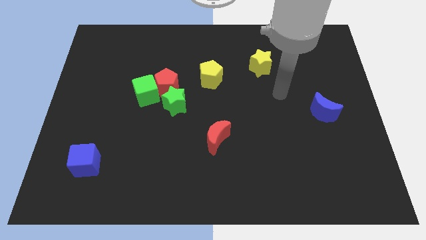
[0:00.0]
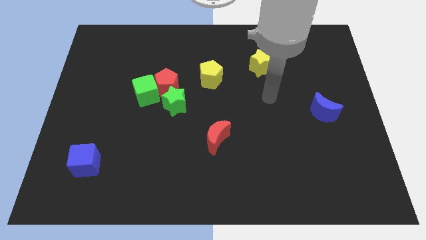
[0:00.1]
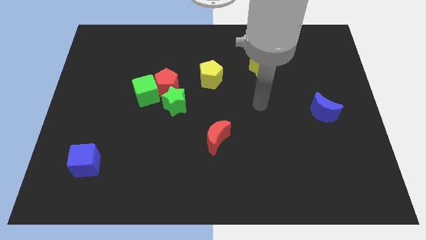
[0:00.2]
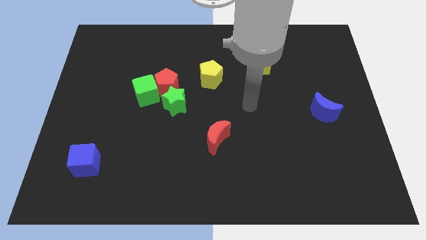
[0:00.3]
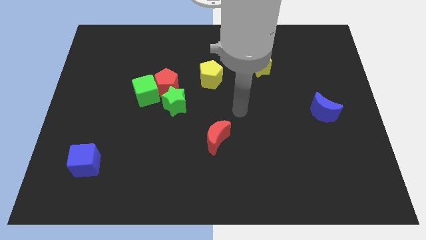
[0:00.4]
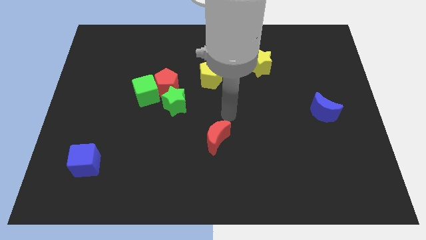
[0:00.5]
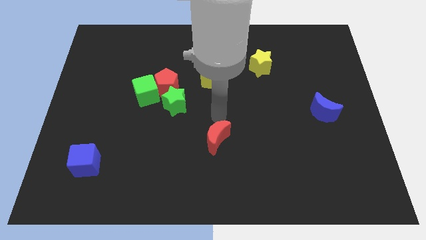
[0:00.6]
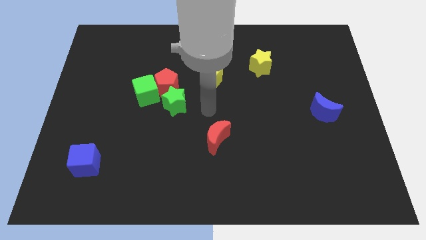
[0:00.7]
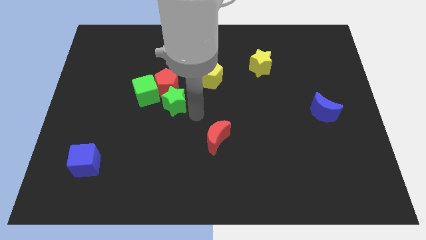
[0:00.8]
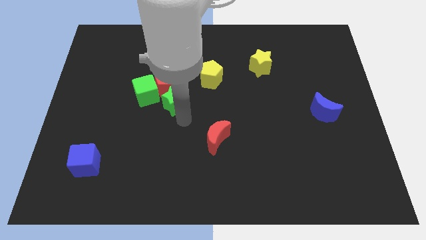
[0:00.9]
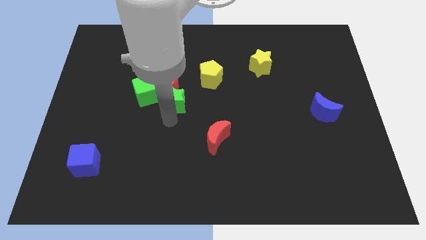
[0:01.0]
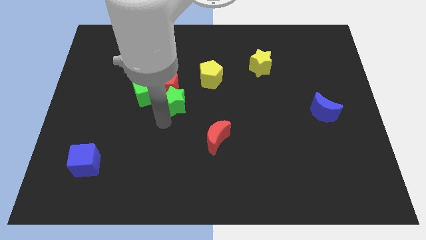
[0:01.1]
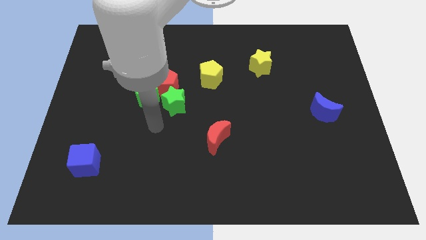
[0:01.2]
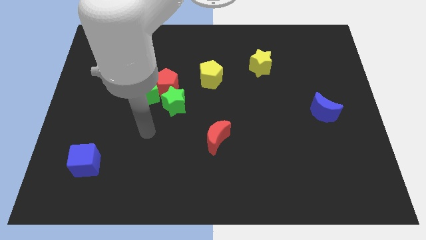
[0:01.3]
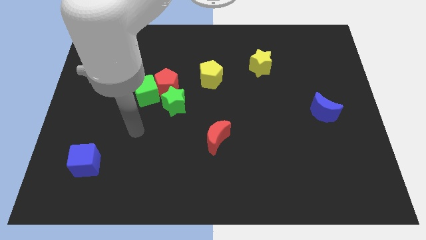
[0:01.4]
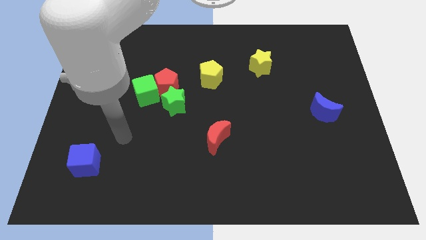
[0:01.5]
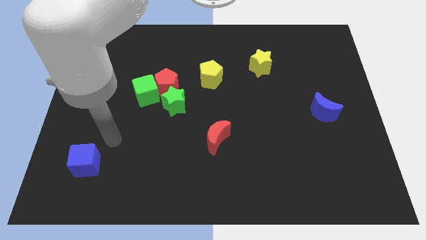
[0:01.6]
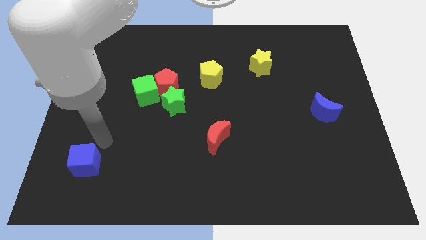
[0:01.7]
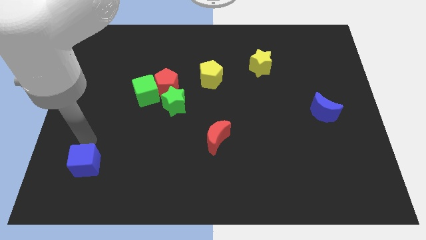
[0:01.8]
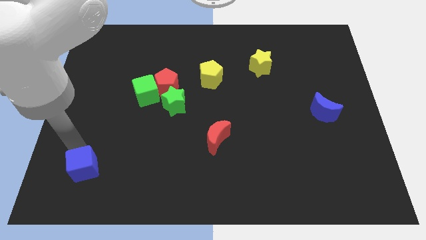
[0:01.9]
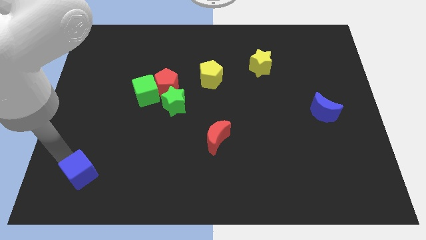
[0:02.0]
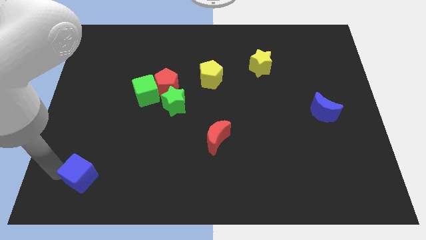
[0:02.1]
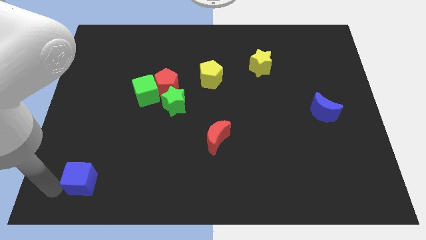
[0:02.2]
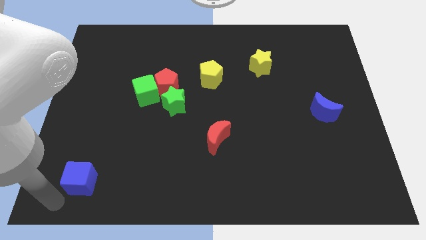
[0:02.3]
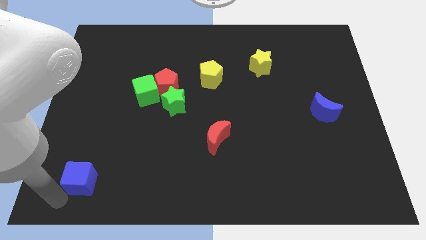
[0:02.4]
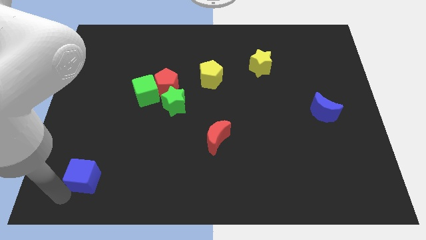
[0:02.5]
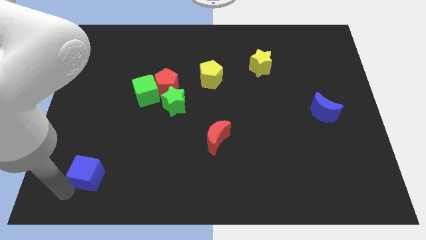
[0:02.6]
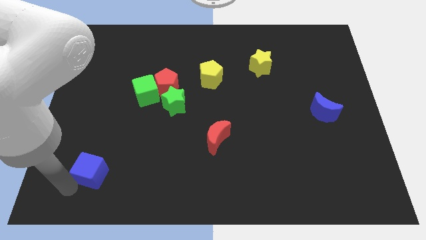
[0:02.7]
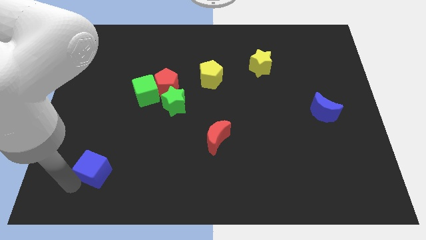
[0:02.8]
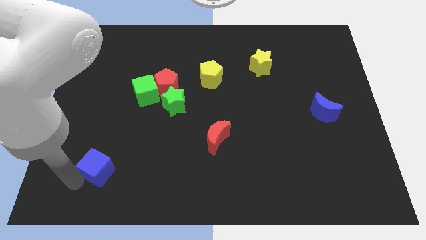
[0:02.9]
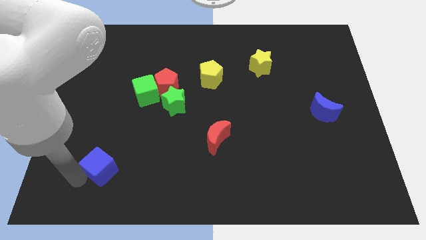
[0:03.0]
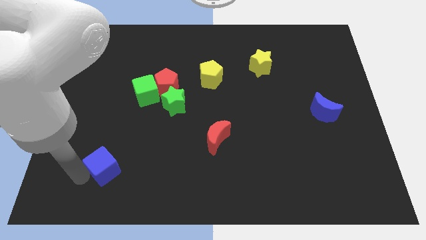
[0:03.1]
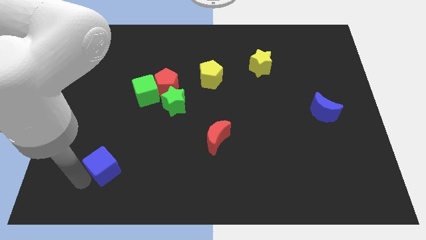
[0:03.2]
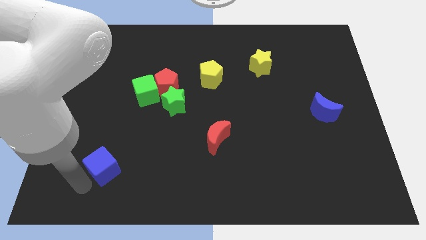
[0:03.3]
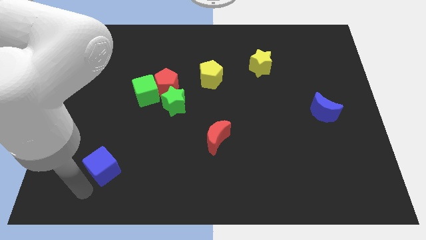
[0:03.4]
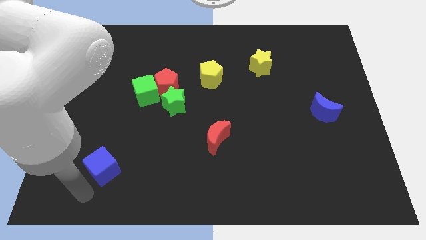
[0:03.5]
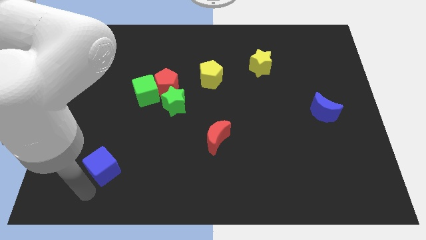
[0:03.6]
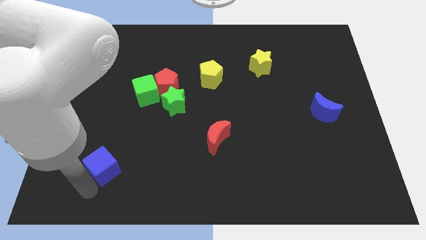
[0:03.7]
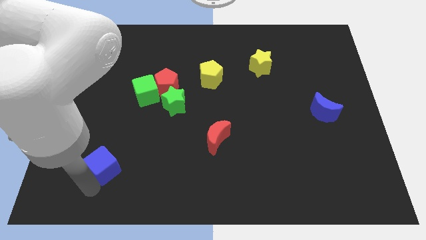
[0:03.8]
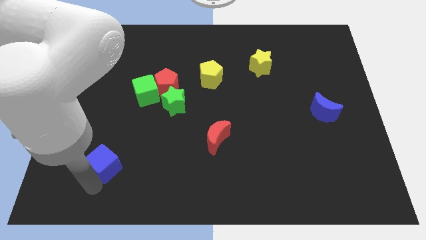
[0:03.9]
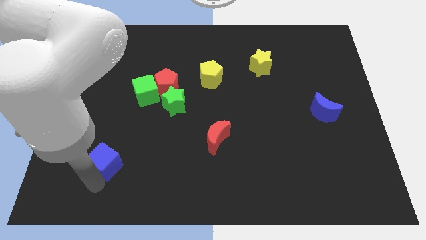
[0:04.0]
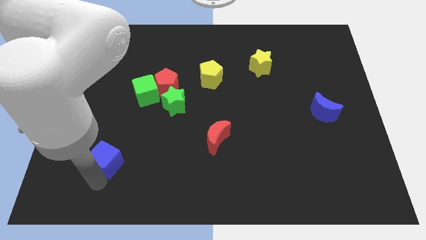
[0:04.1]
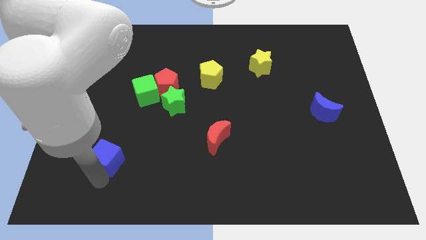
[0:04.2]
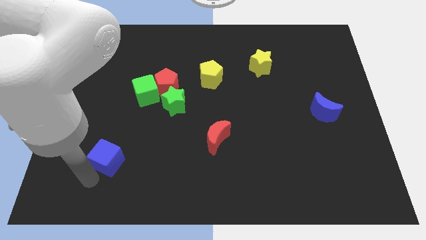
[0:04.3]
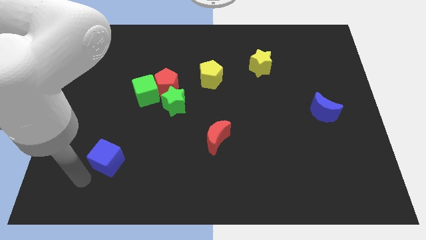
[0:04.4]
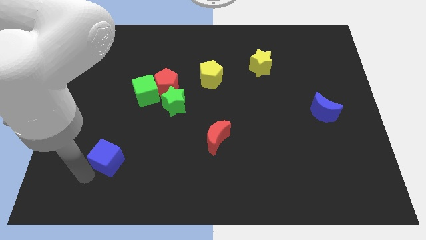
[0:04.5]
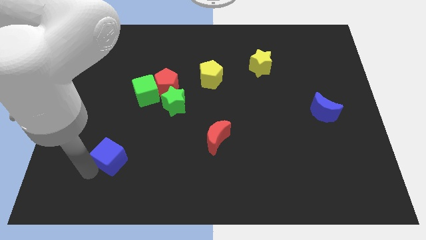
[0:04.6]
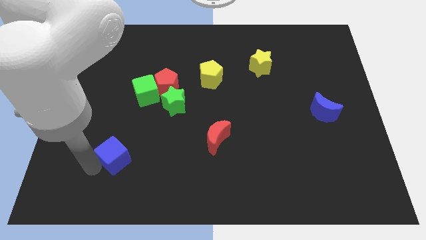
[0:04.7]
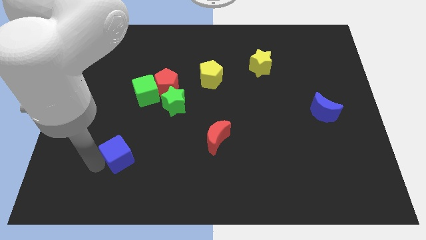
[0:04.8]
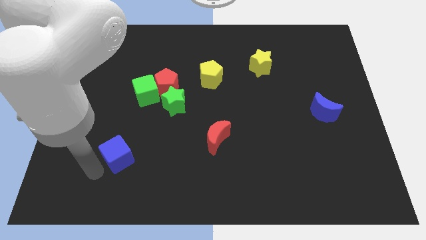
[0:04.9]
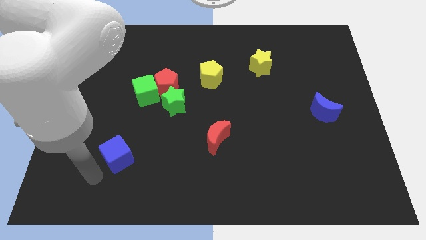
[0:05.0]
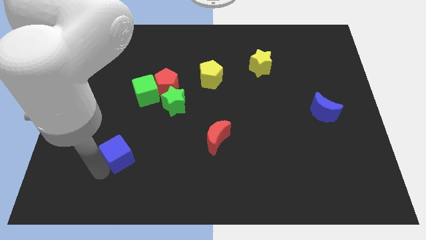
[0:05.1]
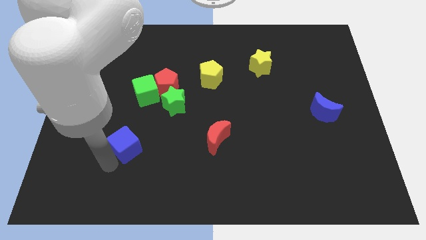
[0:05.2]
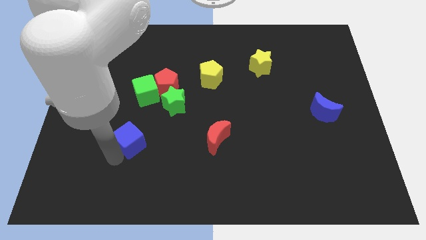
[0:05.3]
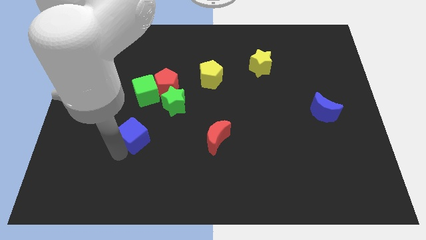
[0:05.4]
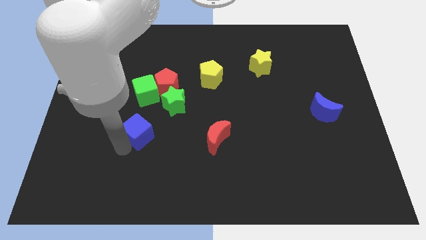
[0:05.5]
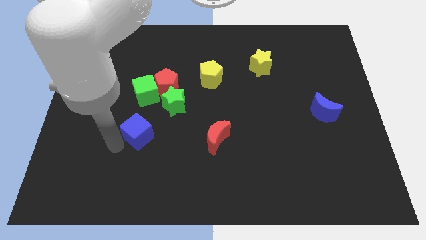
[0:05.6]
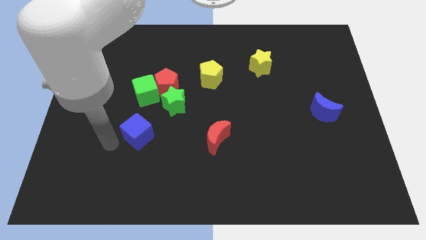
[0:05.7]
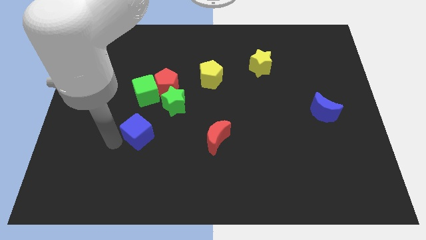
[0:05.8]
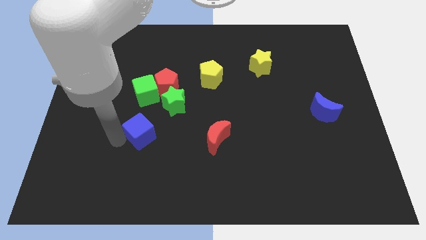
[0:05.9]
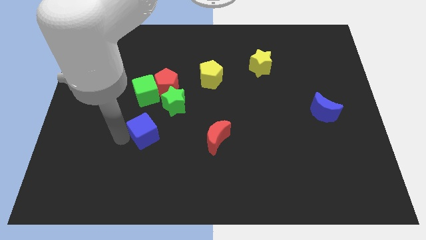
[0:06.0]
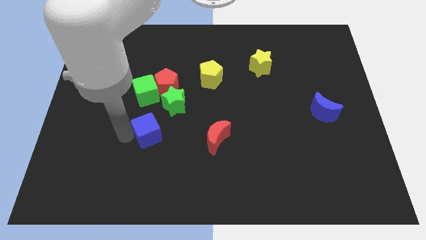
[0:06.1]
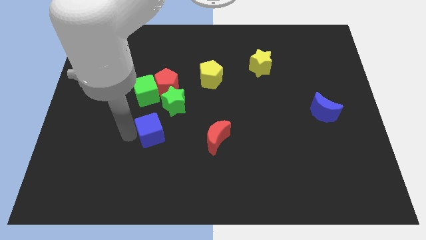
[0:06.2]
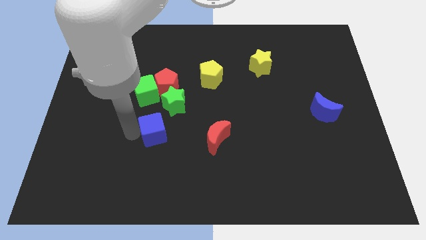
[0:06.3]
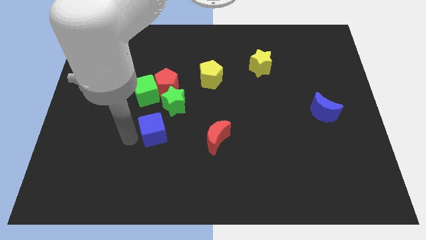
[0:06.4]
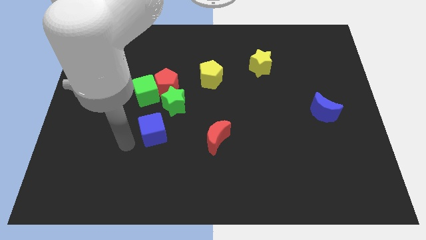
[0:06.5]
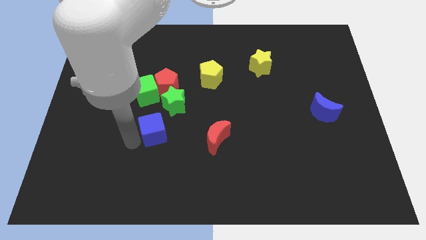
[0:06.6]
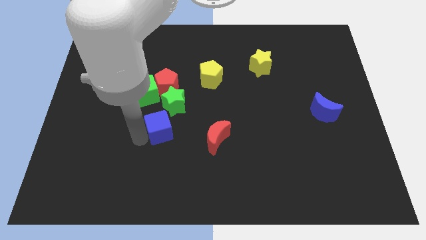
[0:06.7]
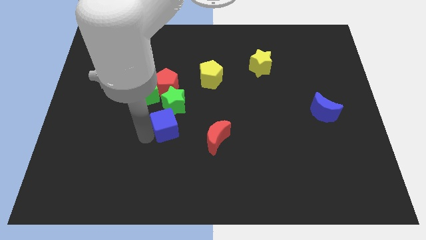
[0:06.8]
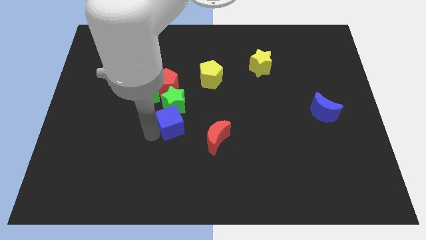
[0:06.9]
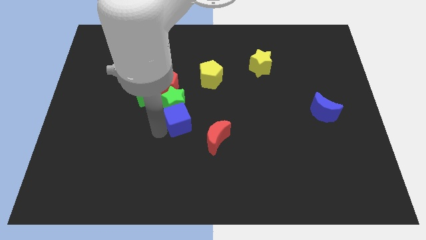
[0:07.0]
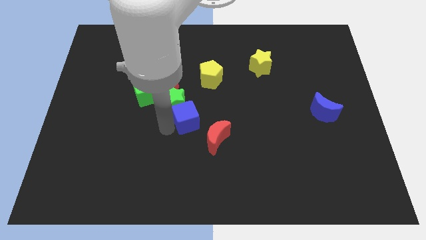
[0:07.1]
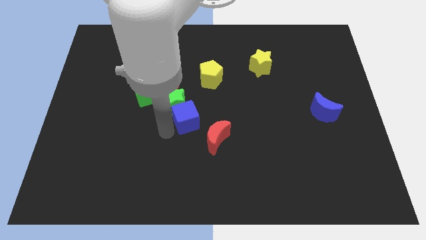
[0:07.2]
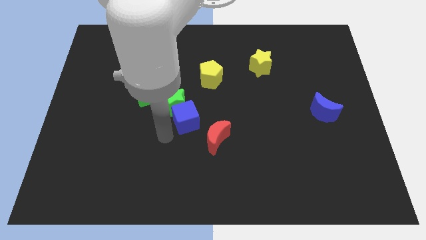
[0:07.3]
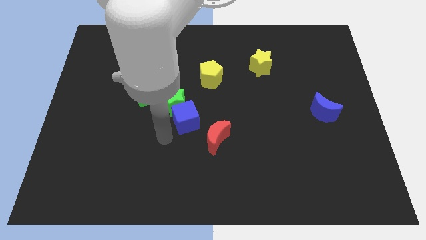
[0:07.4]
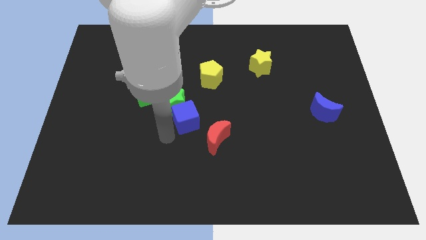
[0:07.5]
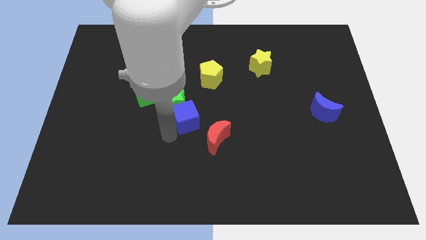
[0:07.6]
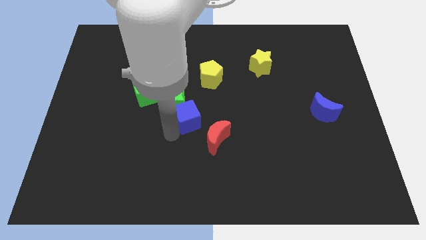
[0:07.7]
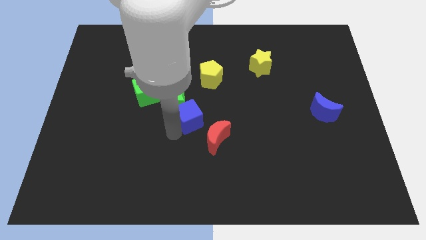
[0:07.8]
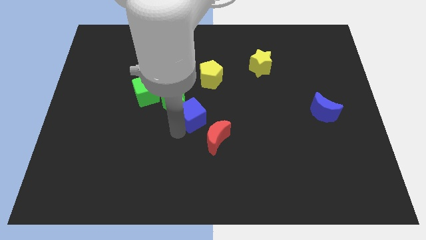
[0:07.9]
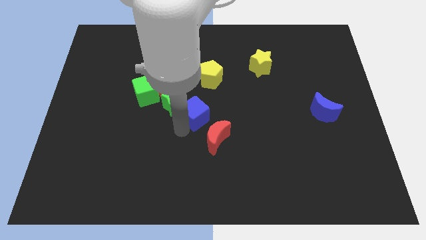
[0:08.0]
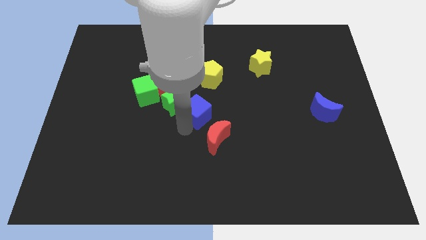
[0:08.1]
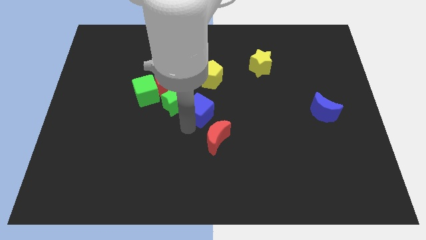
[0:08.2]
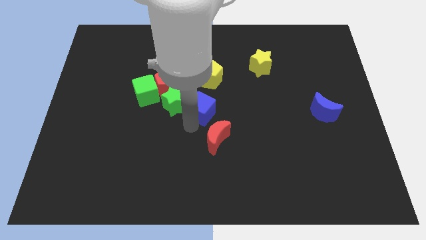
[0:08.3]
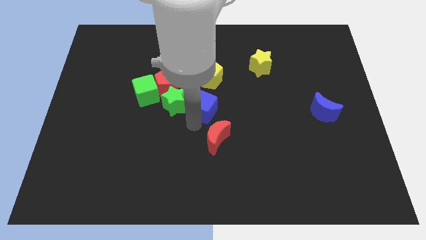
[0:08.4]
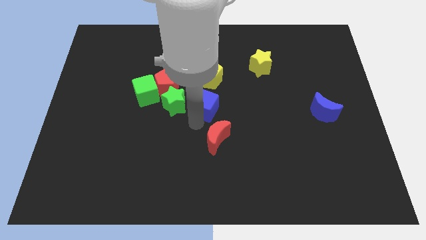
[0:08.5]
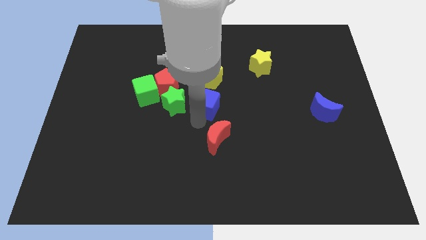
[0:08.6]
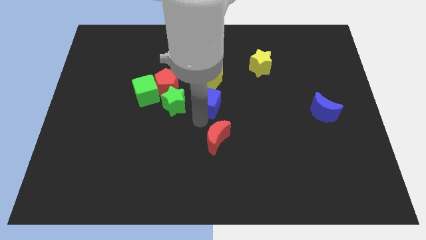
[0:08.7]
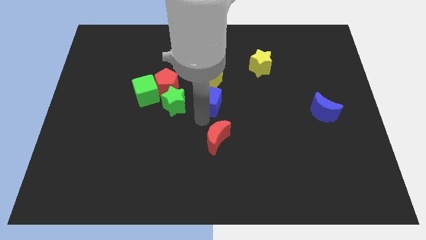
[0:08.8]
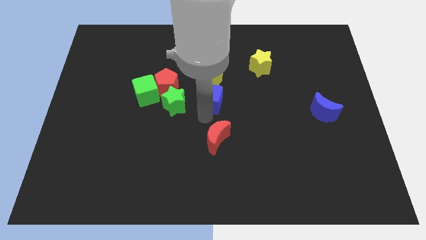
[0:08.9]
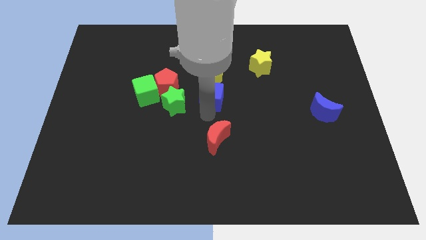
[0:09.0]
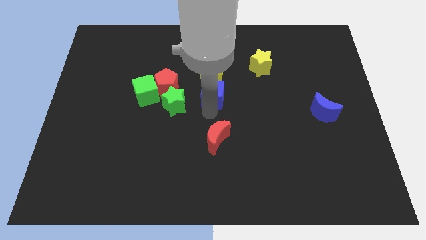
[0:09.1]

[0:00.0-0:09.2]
put the blue cube towards the yellow pentagon
